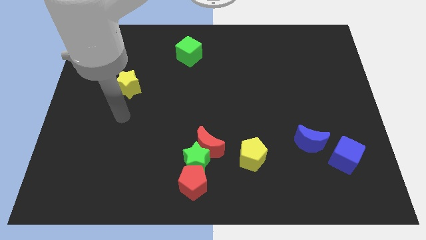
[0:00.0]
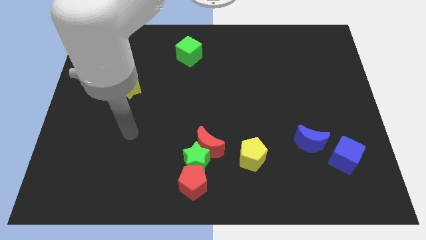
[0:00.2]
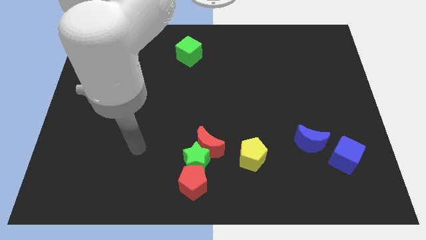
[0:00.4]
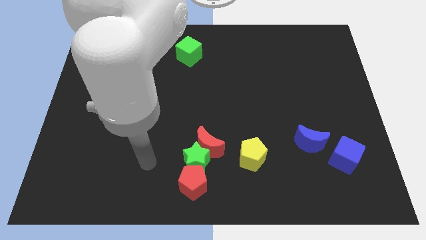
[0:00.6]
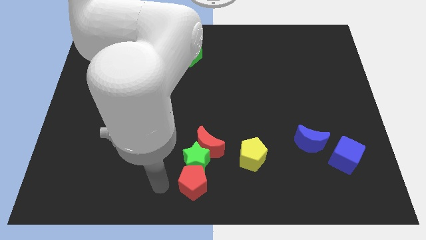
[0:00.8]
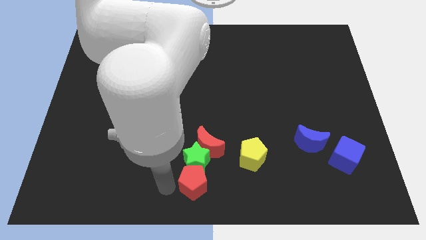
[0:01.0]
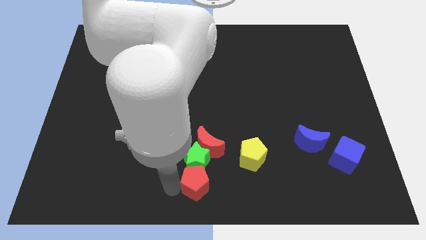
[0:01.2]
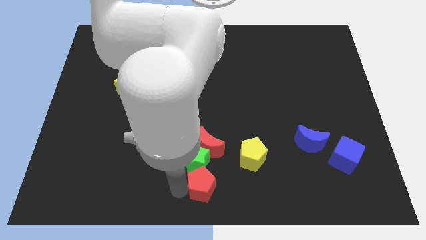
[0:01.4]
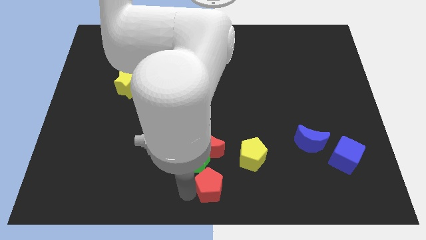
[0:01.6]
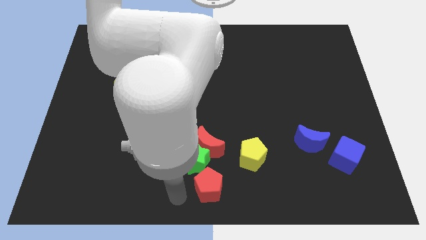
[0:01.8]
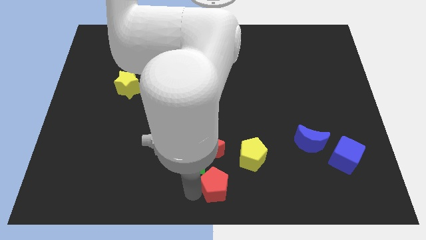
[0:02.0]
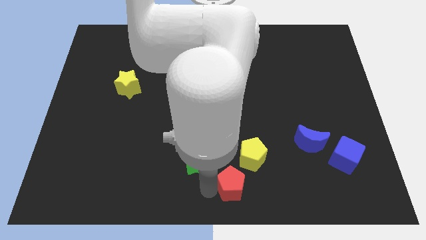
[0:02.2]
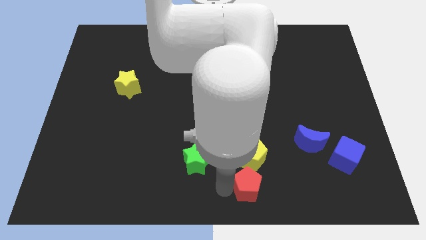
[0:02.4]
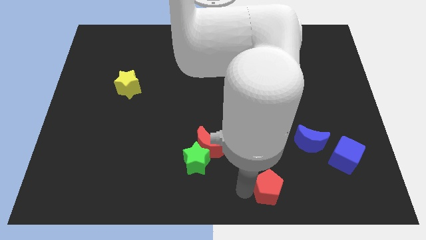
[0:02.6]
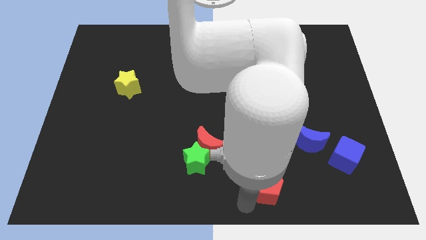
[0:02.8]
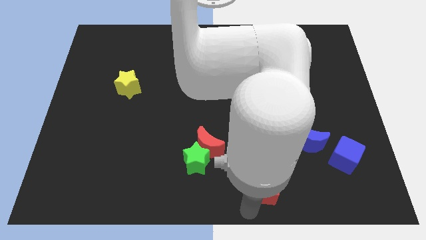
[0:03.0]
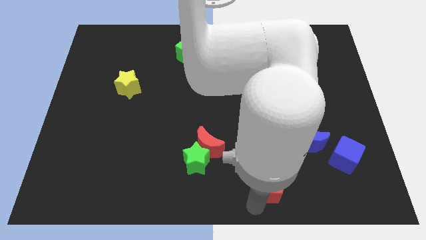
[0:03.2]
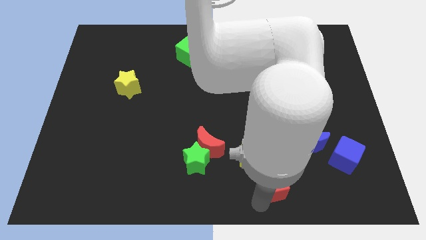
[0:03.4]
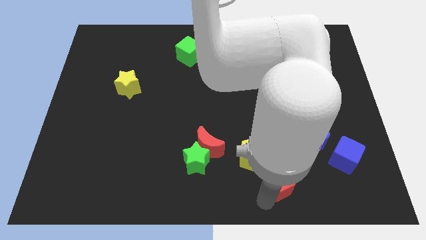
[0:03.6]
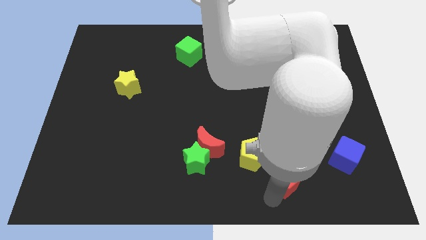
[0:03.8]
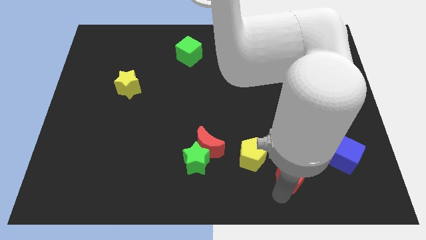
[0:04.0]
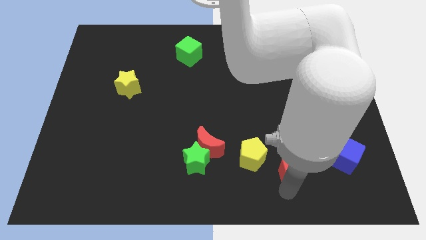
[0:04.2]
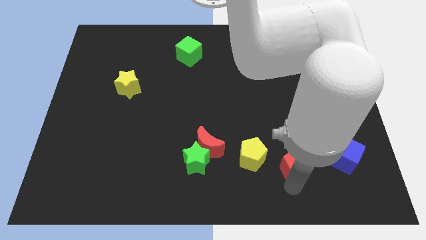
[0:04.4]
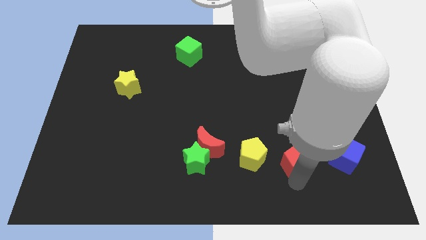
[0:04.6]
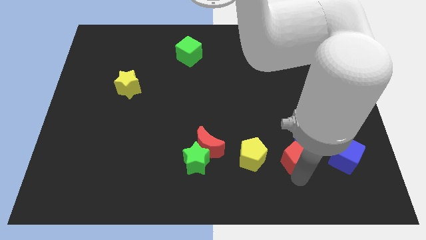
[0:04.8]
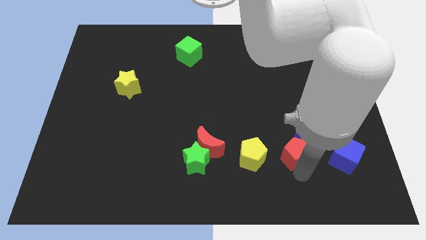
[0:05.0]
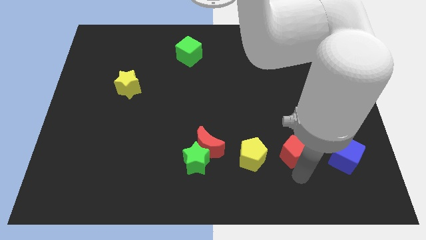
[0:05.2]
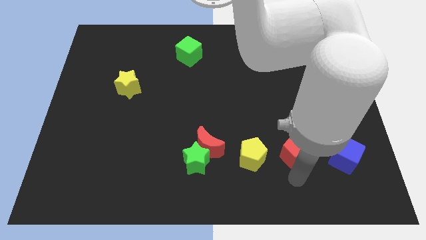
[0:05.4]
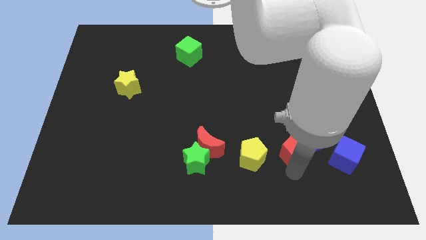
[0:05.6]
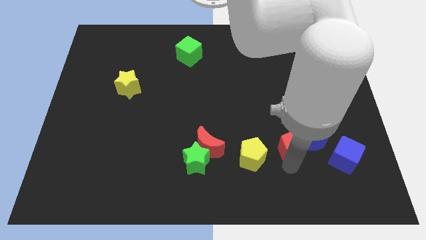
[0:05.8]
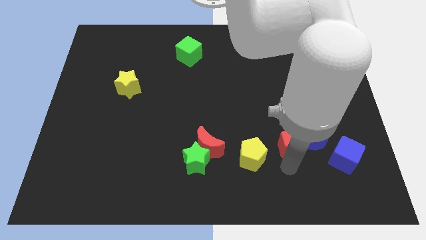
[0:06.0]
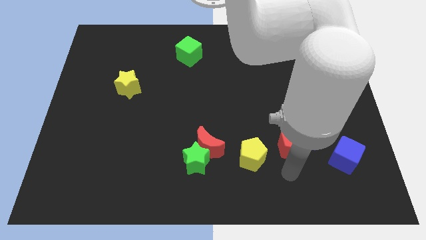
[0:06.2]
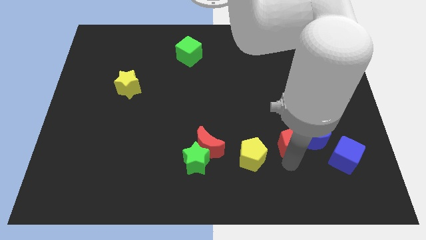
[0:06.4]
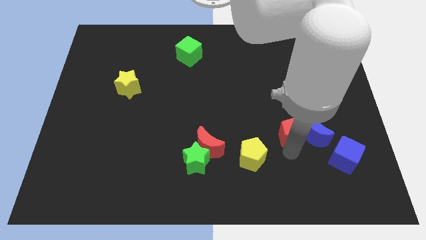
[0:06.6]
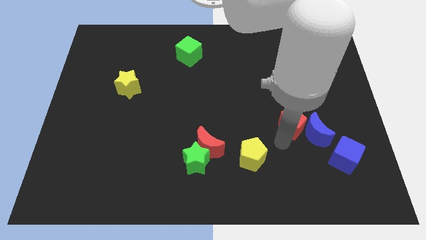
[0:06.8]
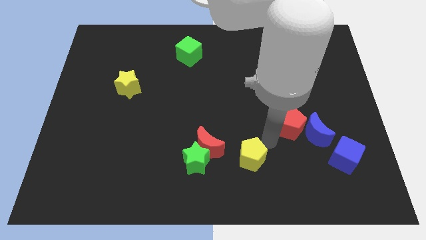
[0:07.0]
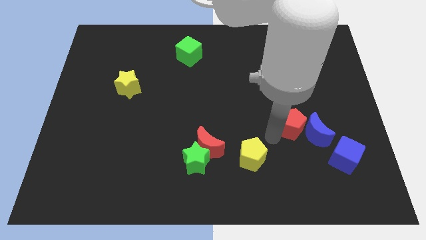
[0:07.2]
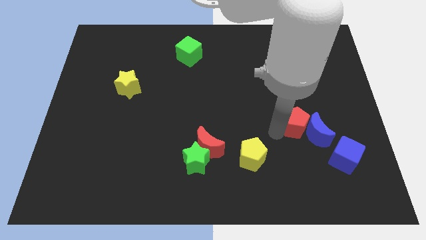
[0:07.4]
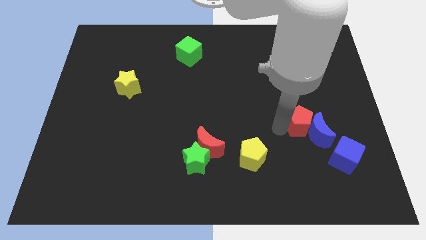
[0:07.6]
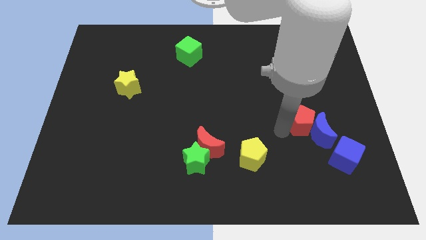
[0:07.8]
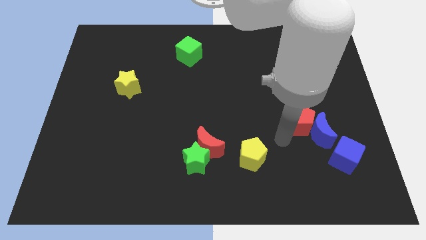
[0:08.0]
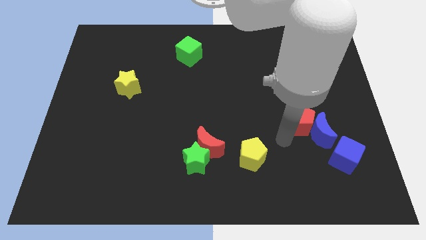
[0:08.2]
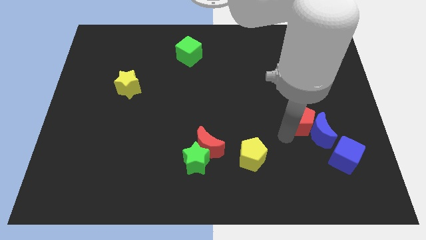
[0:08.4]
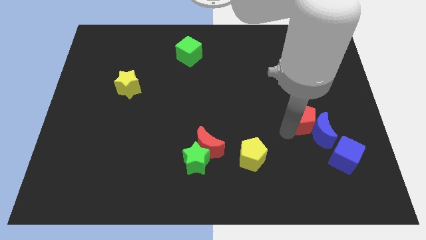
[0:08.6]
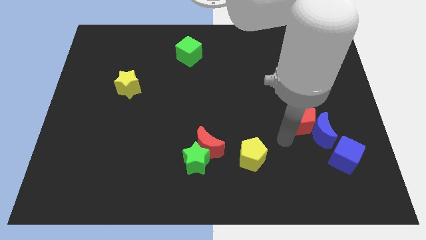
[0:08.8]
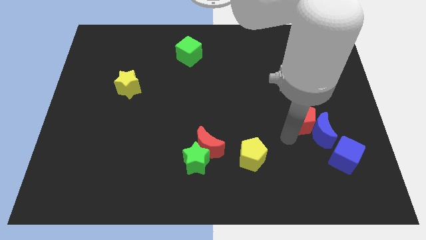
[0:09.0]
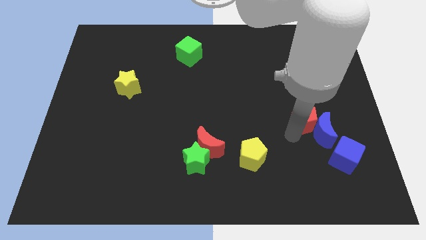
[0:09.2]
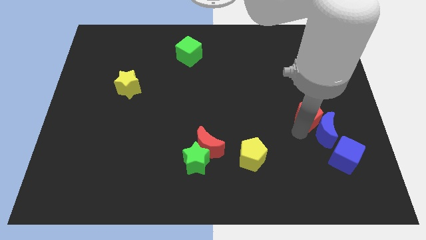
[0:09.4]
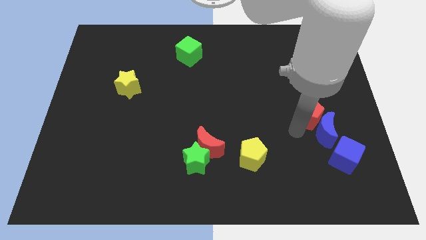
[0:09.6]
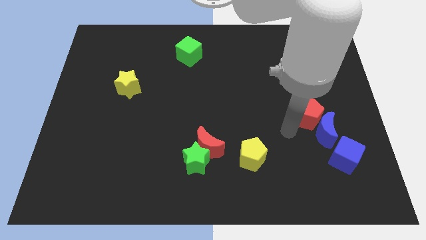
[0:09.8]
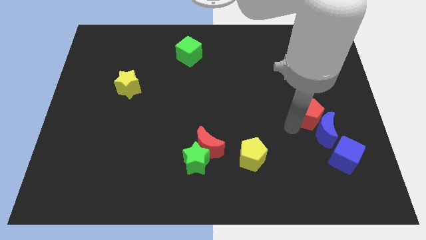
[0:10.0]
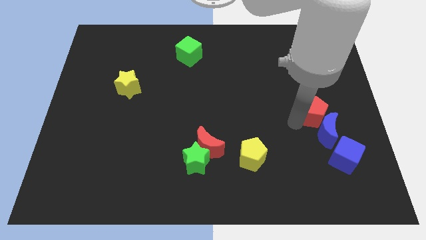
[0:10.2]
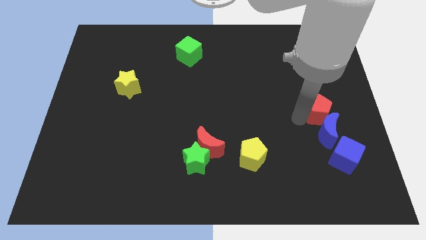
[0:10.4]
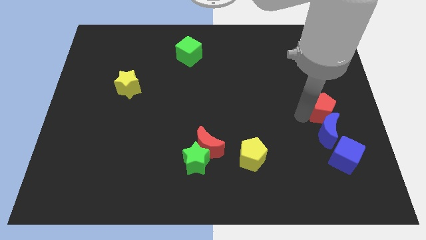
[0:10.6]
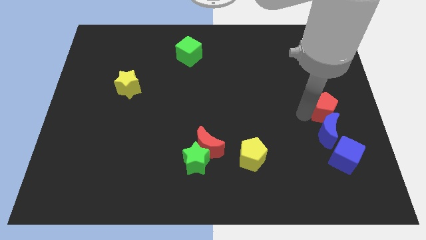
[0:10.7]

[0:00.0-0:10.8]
put the red pentagon to the right side

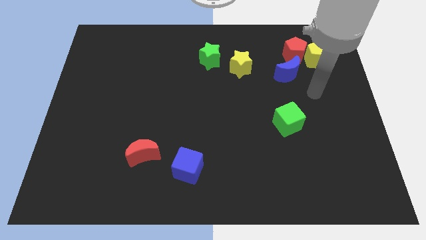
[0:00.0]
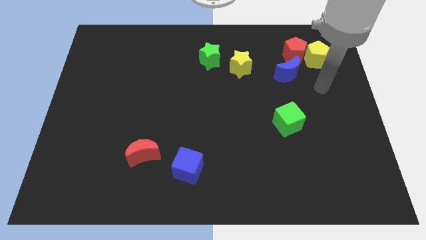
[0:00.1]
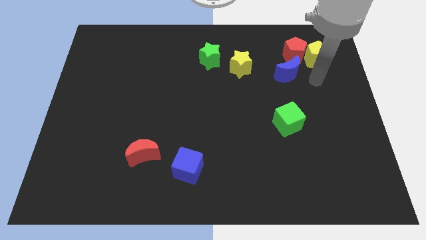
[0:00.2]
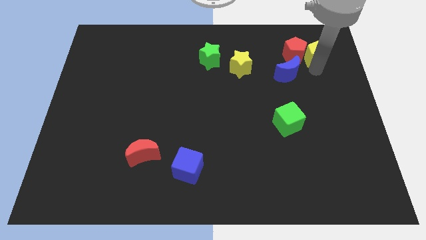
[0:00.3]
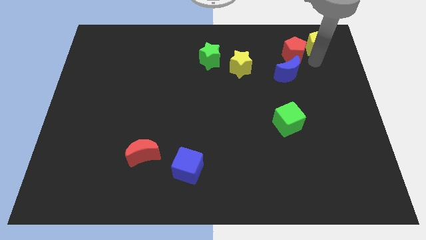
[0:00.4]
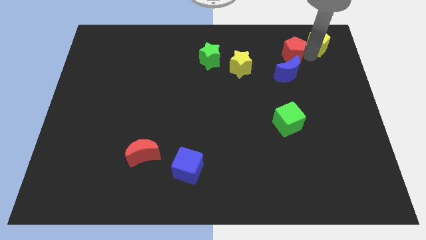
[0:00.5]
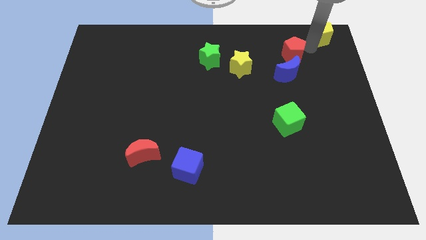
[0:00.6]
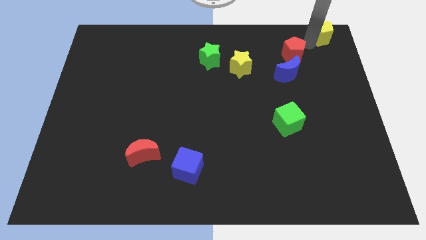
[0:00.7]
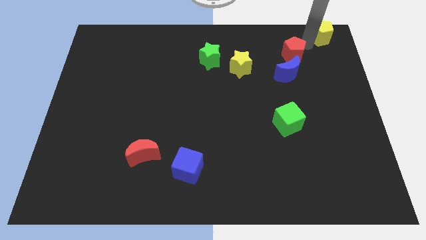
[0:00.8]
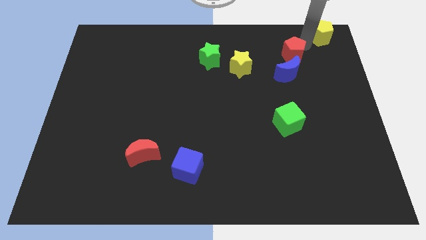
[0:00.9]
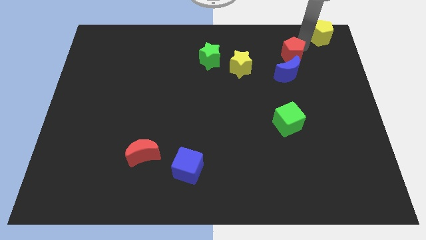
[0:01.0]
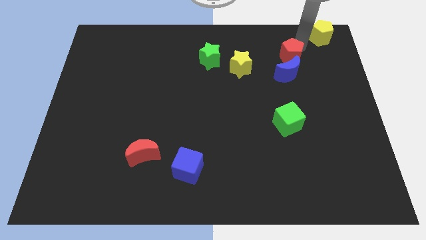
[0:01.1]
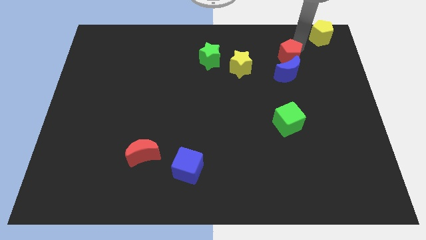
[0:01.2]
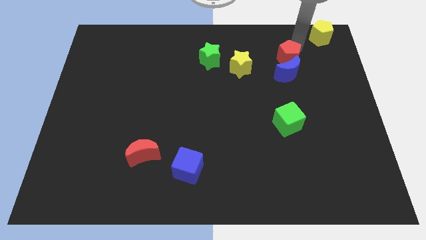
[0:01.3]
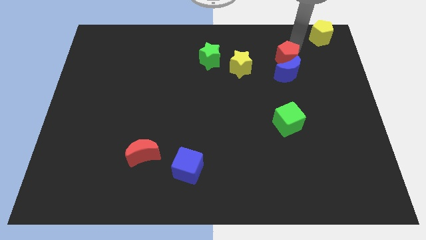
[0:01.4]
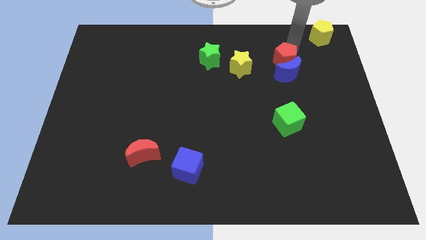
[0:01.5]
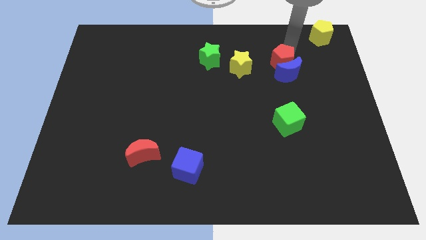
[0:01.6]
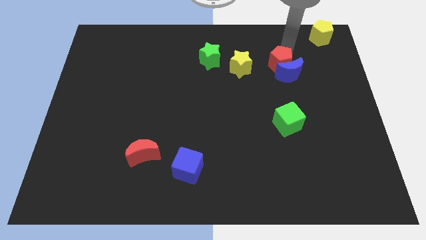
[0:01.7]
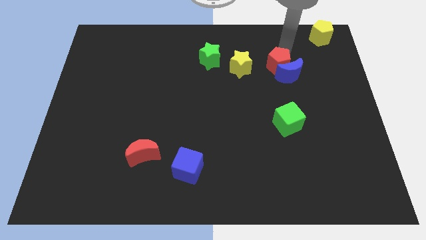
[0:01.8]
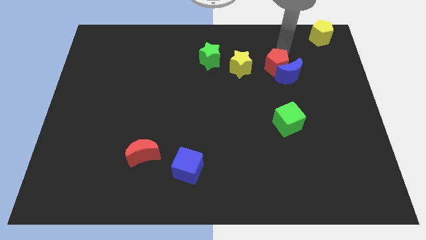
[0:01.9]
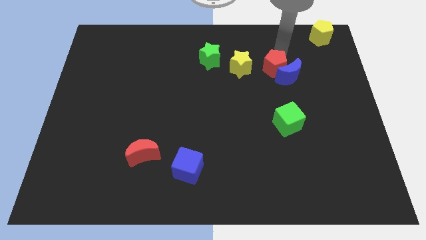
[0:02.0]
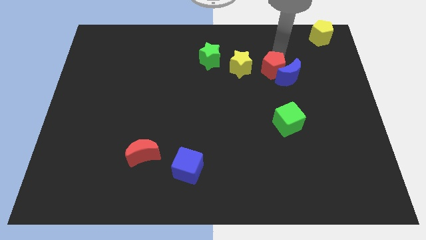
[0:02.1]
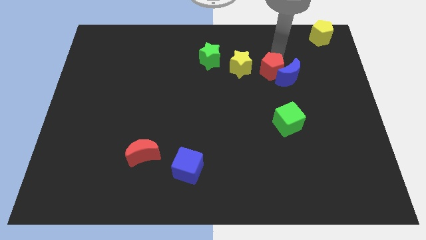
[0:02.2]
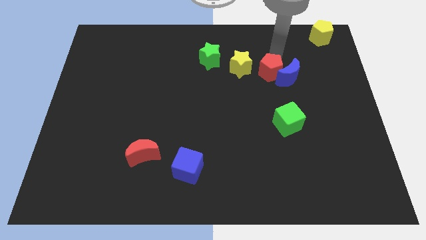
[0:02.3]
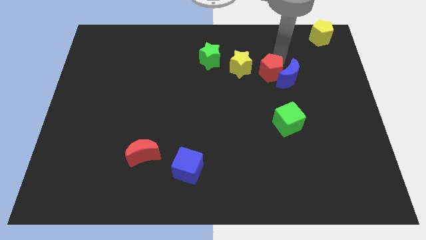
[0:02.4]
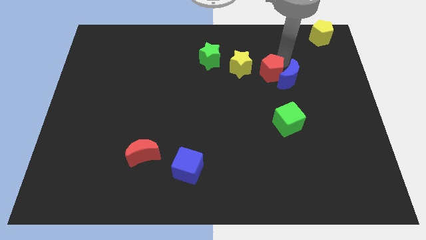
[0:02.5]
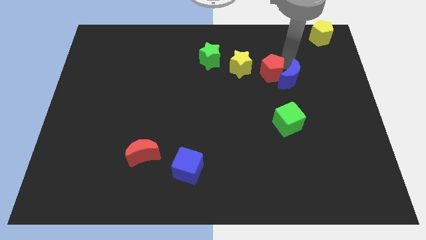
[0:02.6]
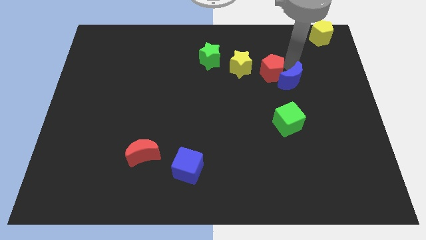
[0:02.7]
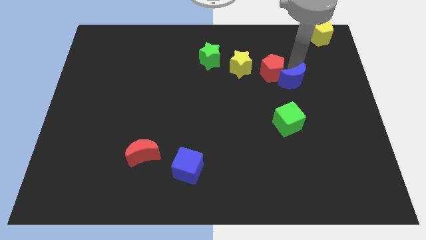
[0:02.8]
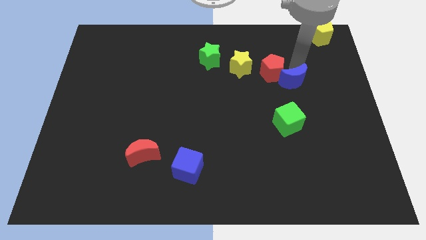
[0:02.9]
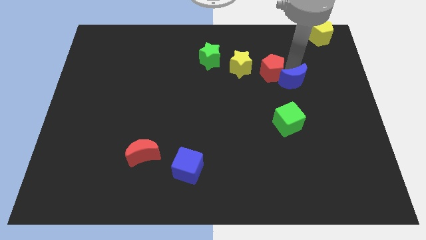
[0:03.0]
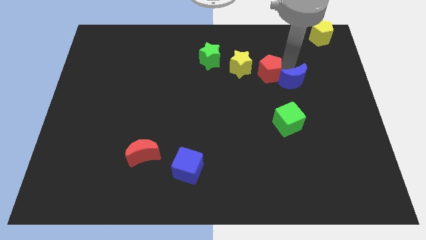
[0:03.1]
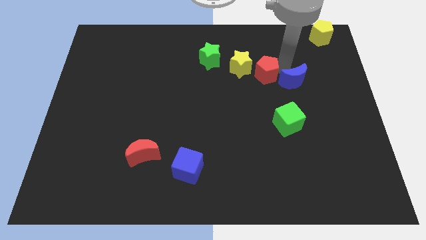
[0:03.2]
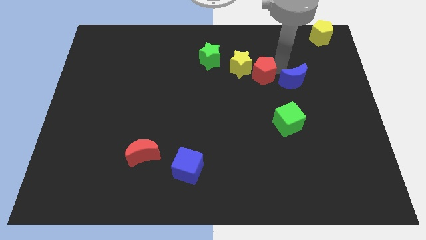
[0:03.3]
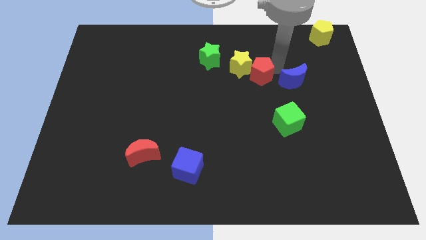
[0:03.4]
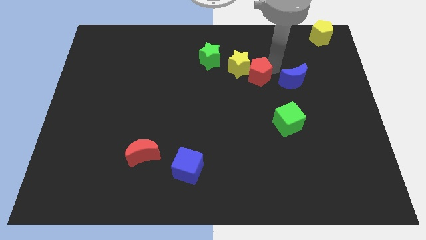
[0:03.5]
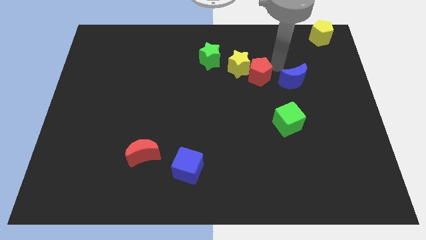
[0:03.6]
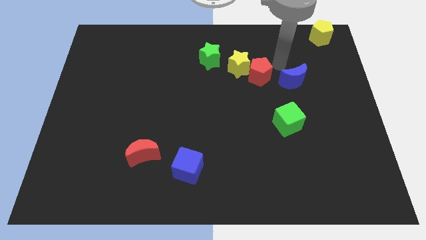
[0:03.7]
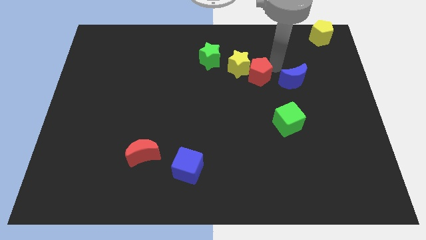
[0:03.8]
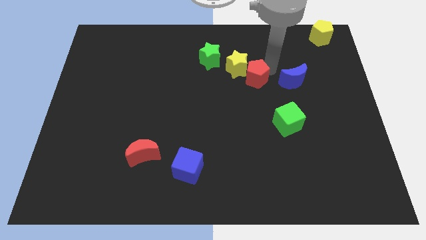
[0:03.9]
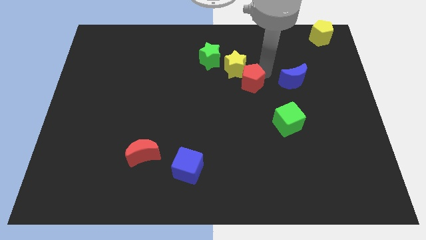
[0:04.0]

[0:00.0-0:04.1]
slide the red pentagon to the center of the board
